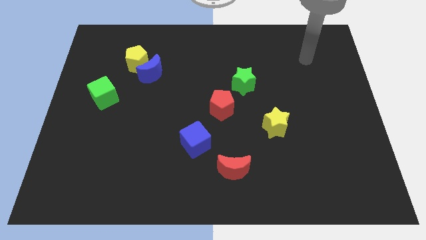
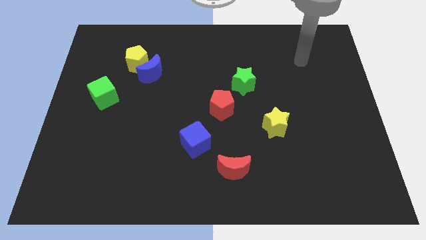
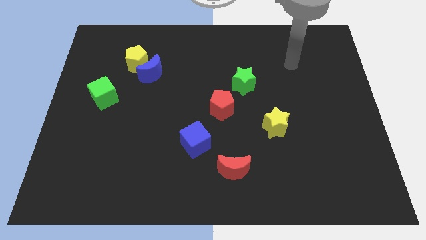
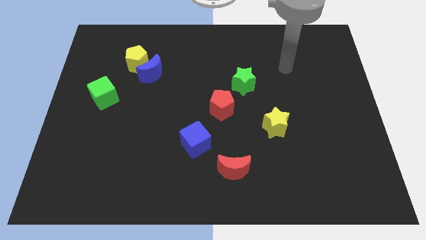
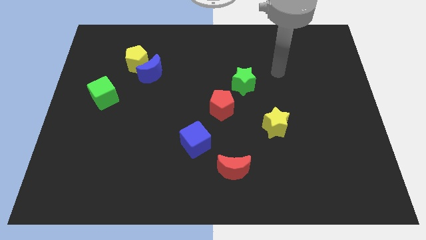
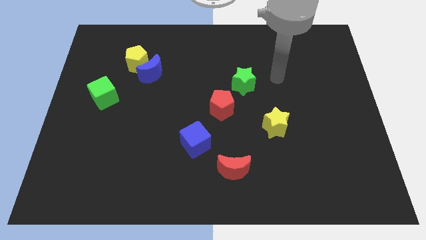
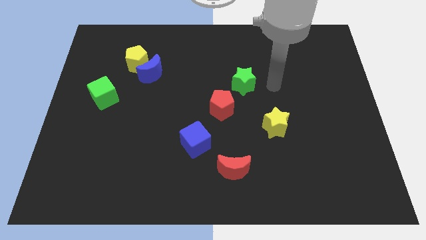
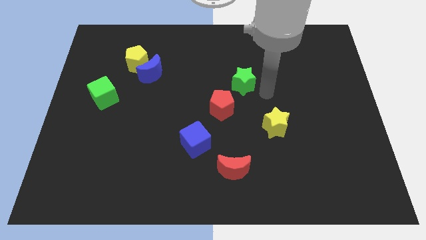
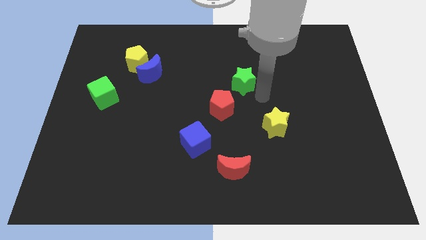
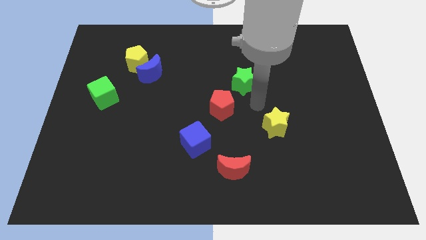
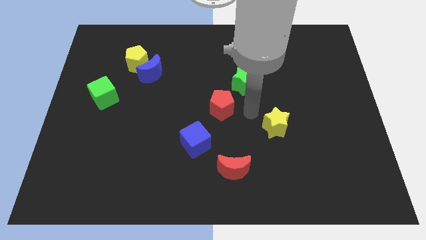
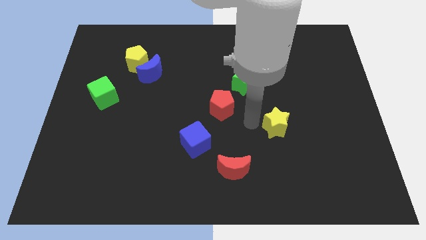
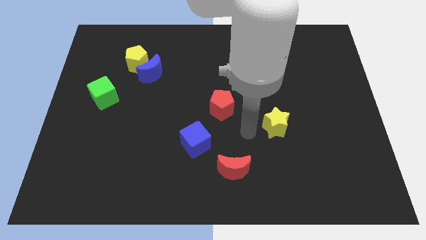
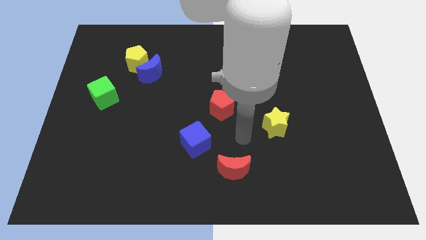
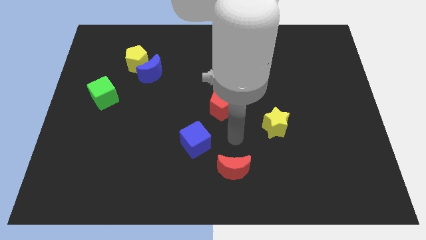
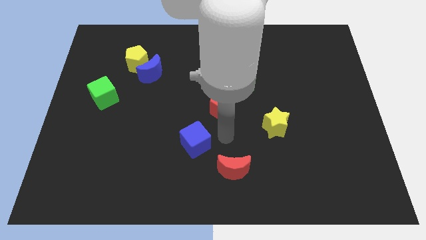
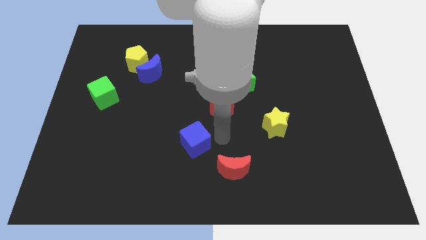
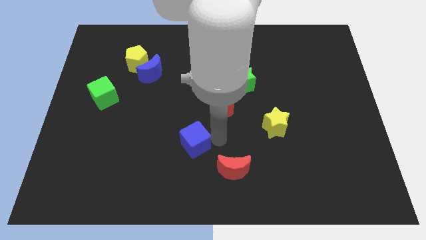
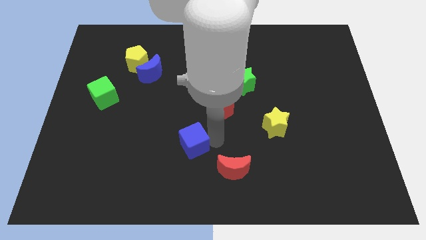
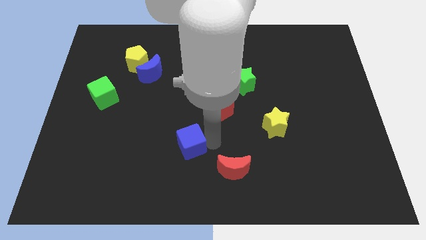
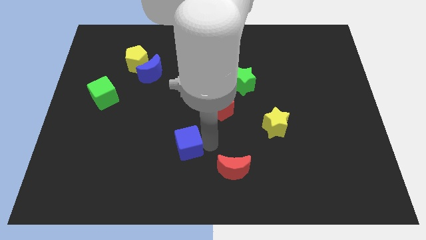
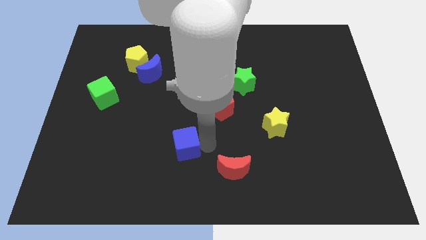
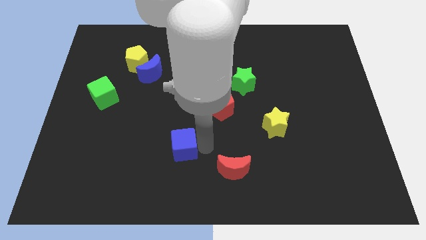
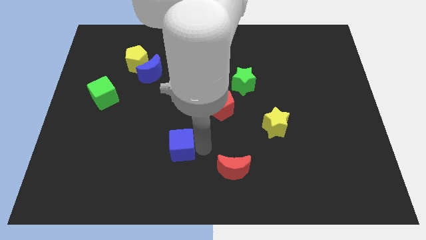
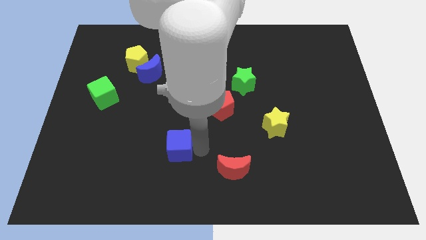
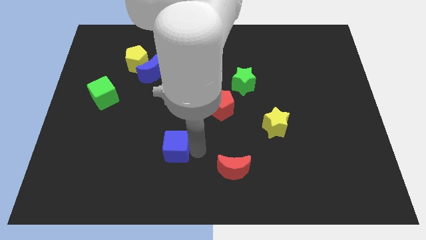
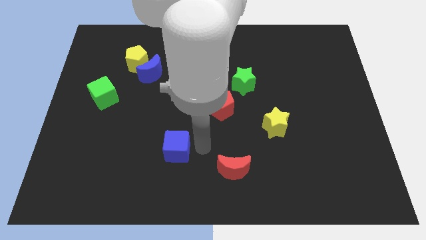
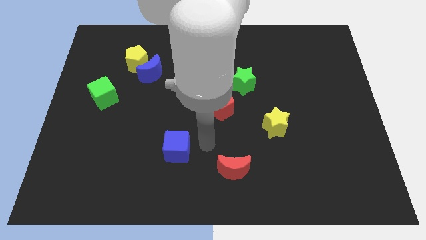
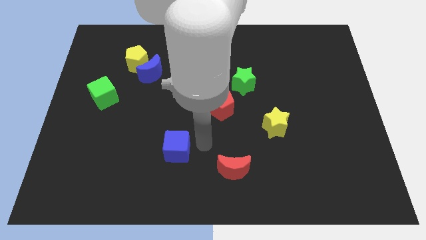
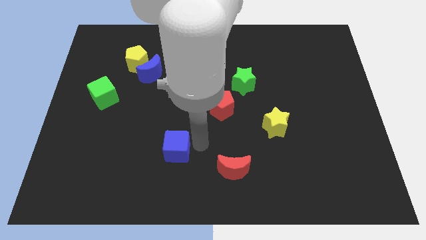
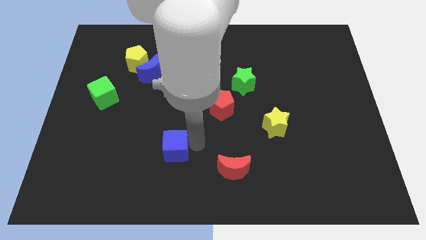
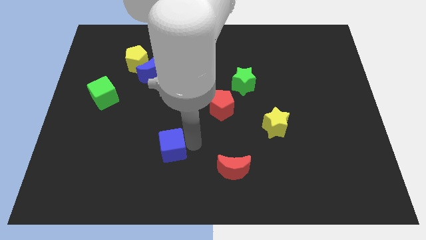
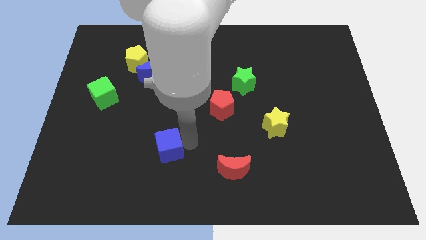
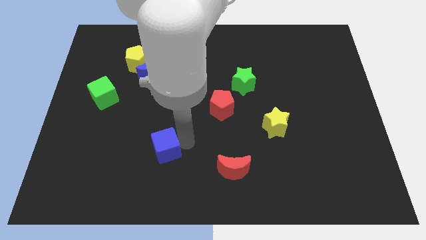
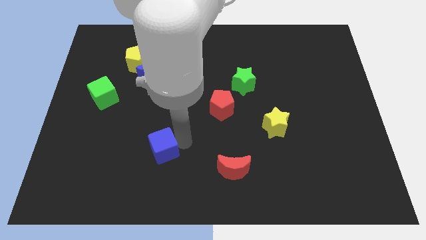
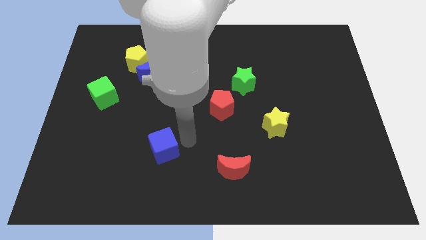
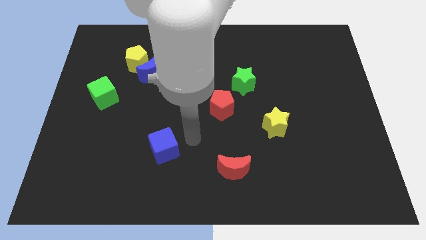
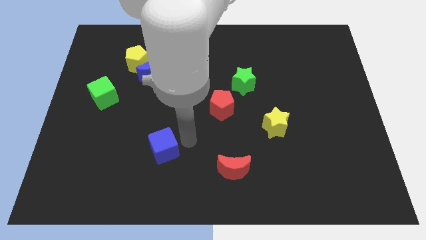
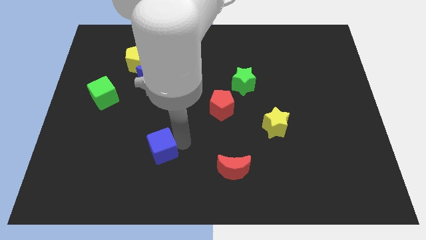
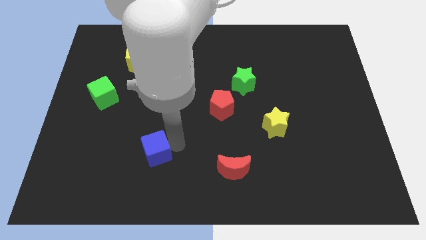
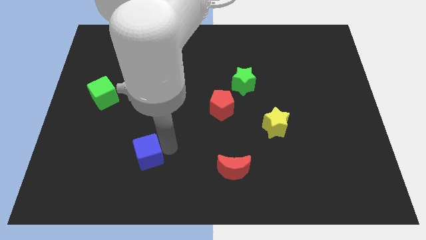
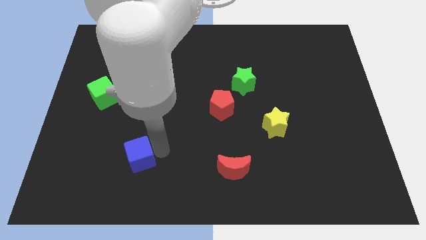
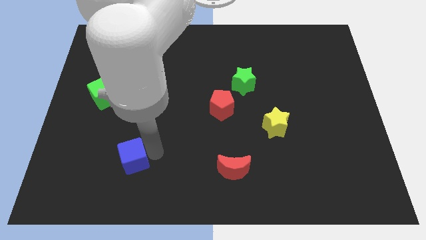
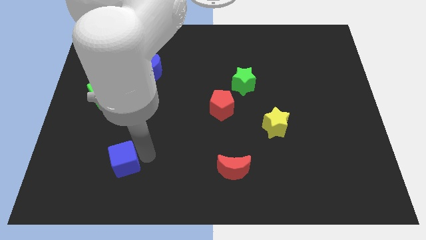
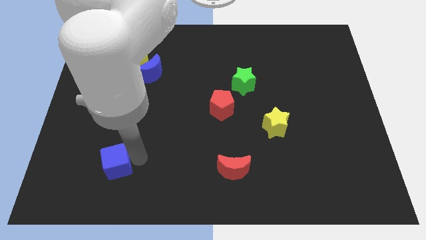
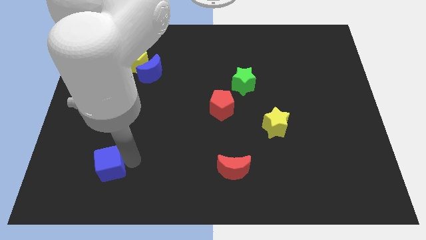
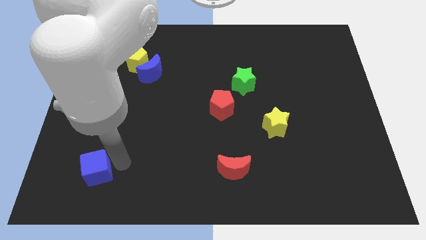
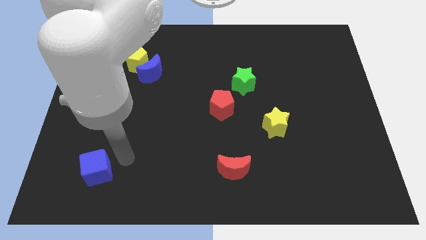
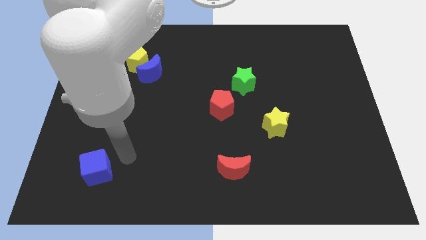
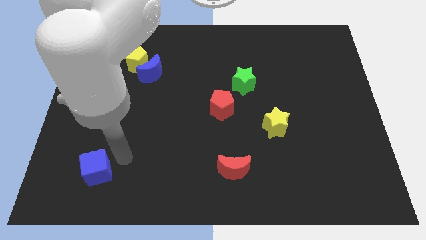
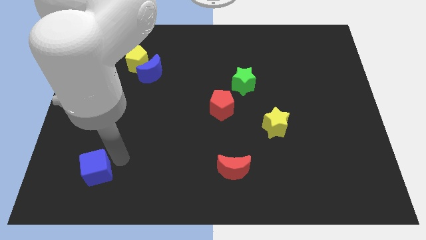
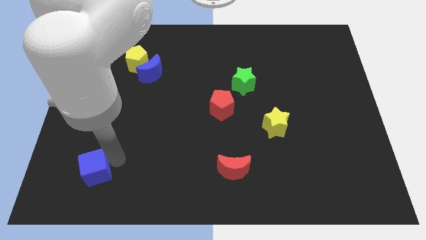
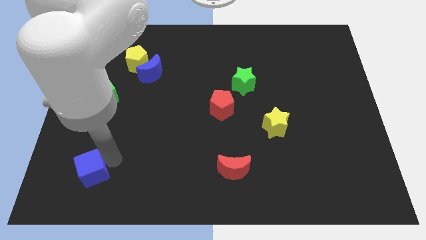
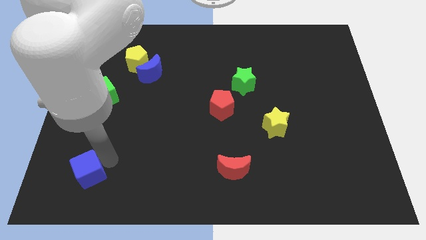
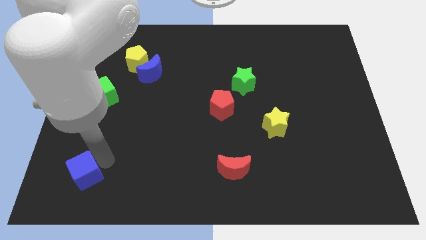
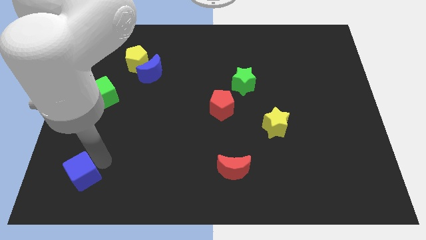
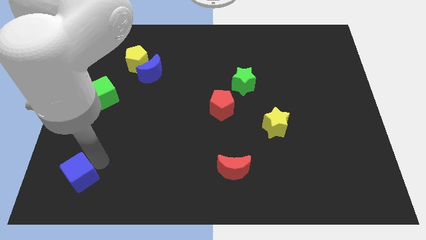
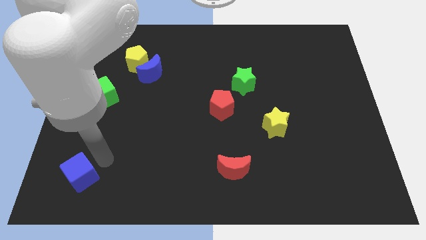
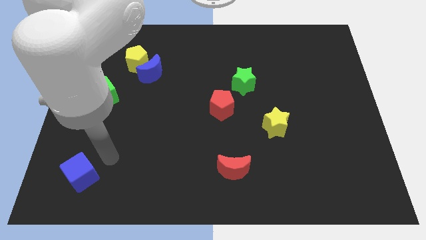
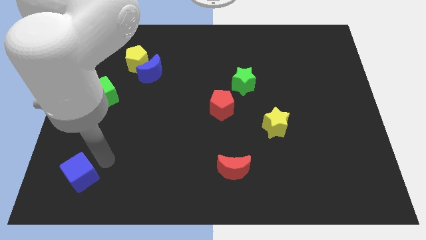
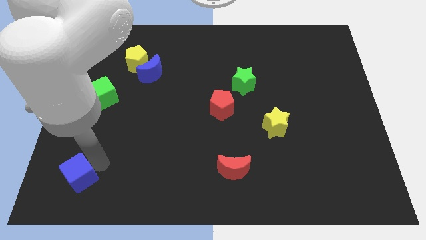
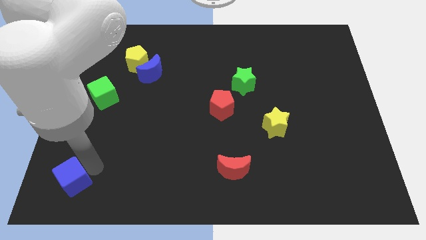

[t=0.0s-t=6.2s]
slide the blue cube to the bottom left corner

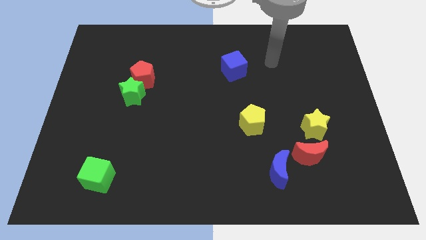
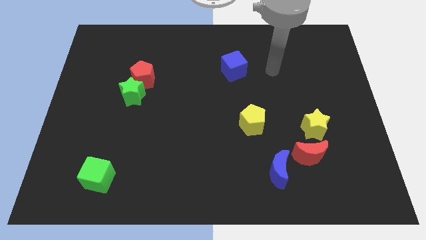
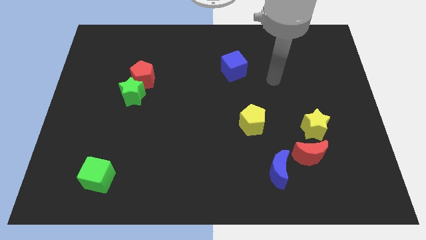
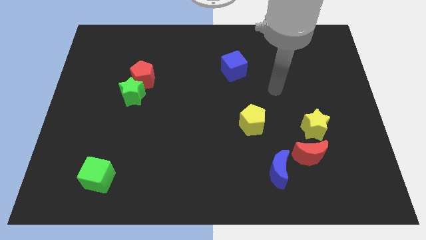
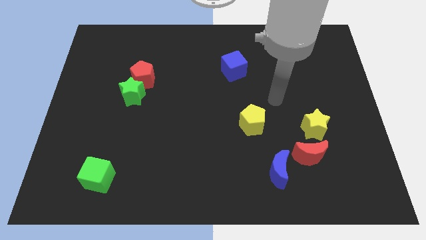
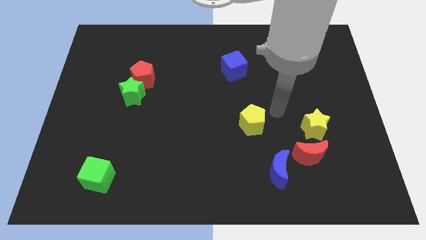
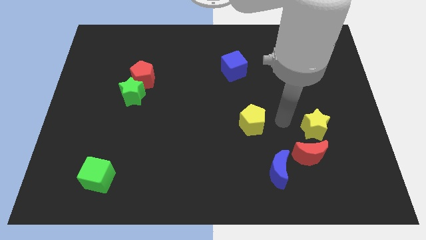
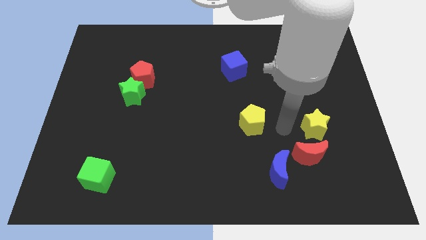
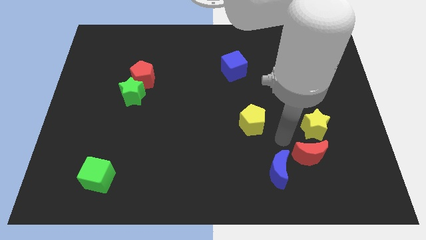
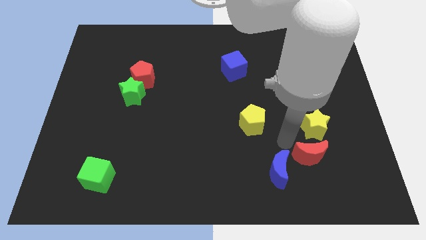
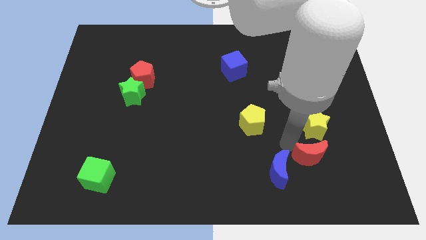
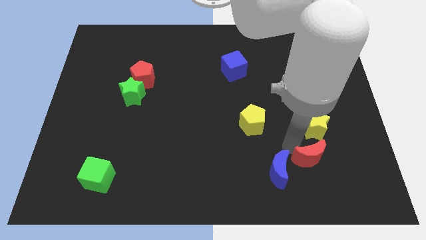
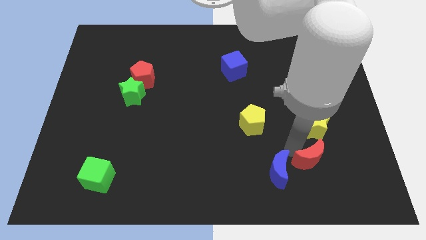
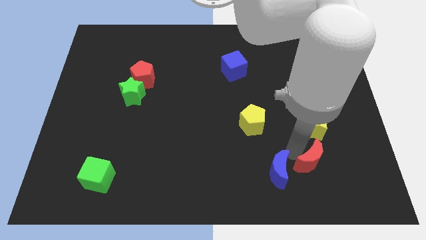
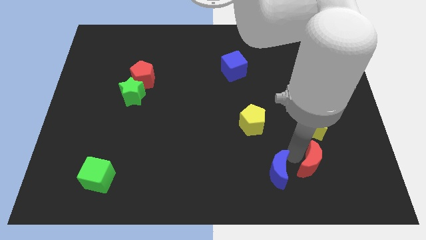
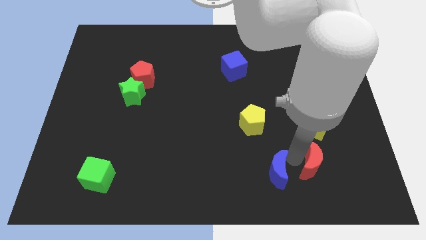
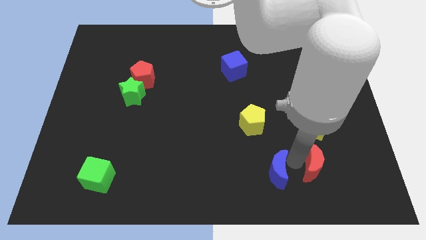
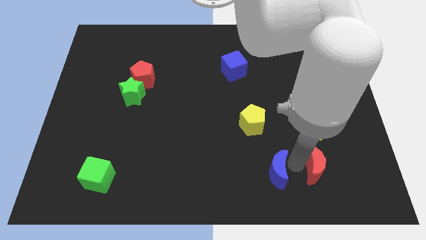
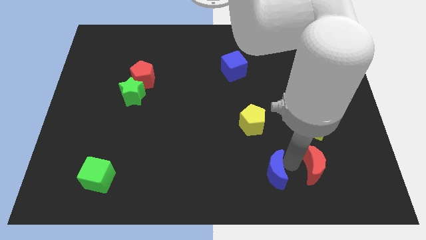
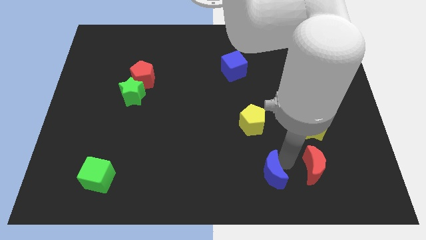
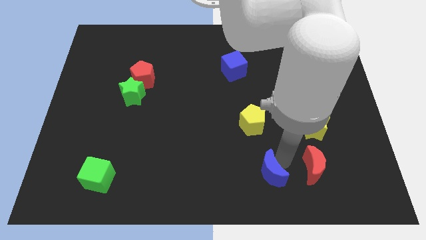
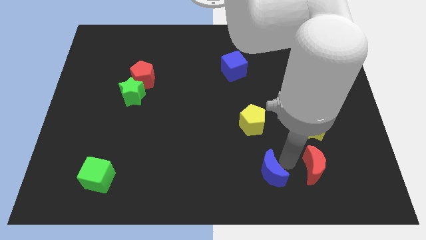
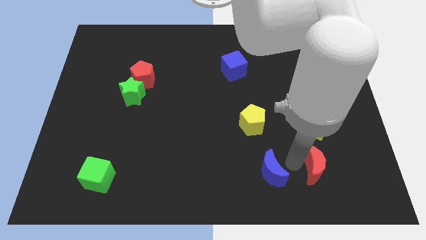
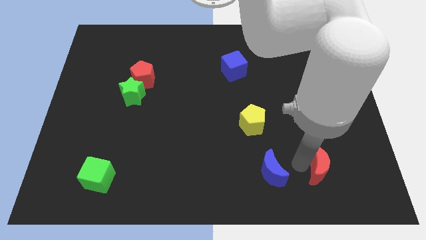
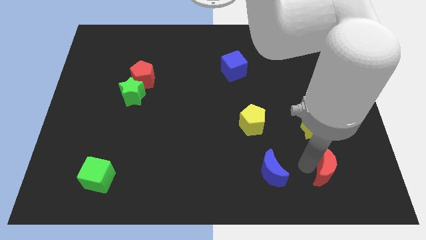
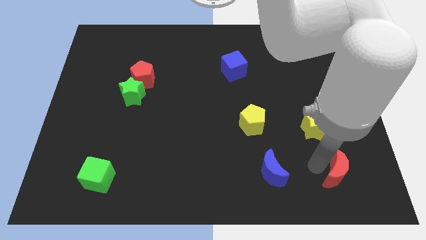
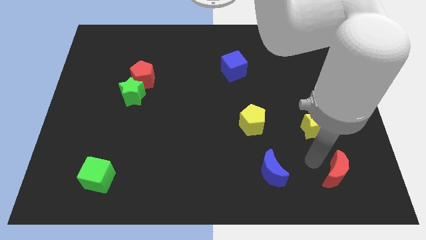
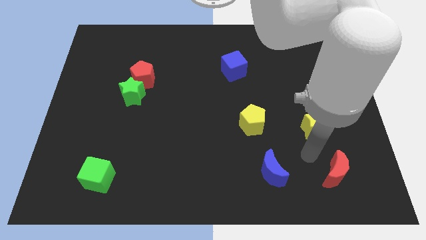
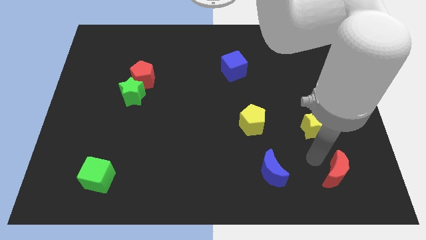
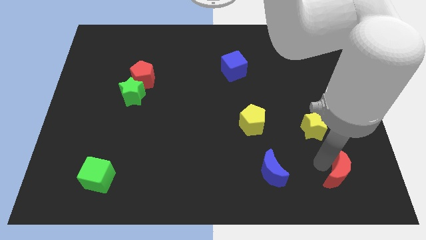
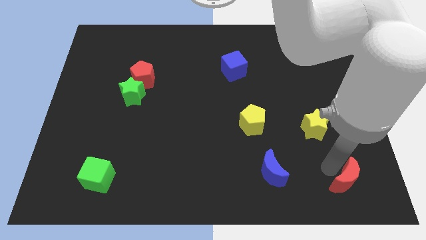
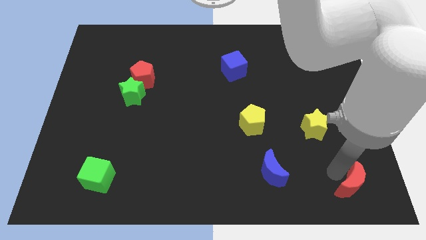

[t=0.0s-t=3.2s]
slide the red moon to the lower right corner
